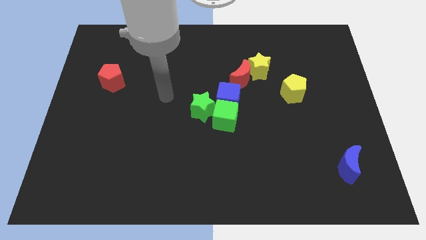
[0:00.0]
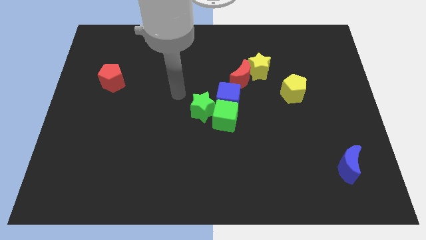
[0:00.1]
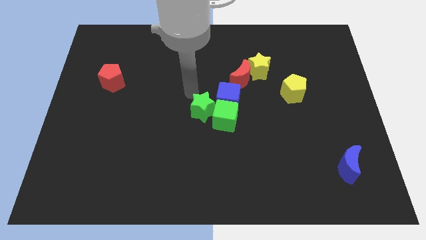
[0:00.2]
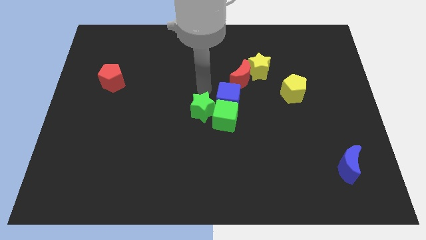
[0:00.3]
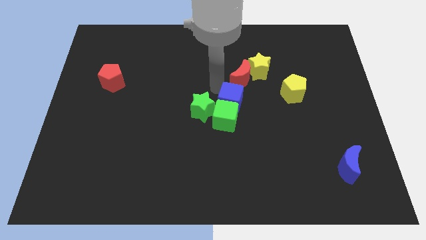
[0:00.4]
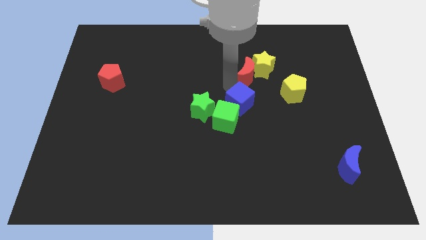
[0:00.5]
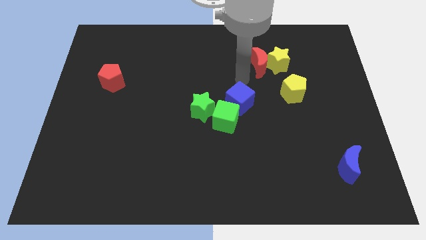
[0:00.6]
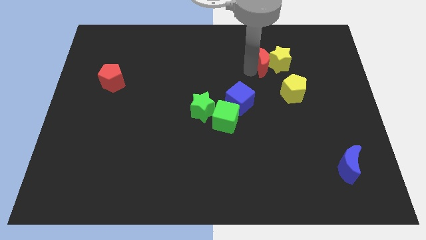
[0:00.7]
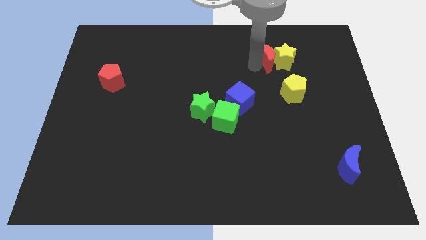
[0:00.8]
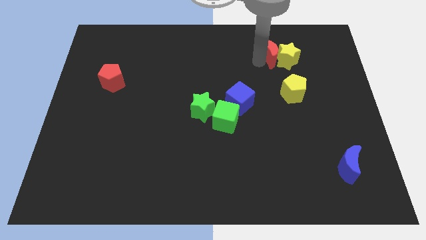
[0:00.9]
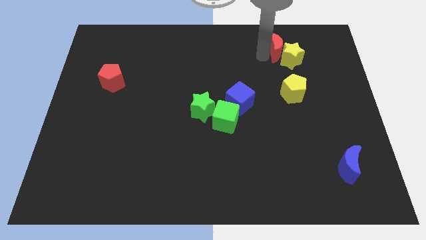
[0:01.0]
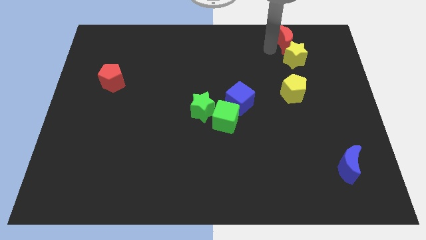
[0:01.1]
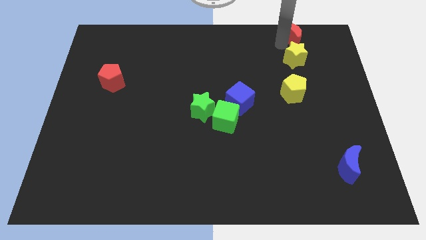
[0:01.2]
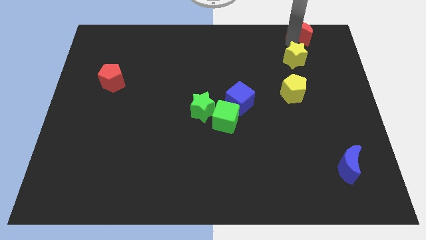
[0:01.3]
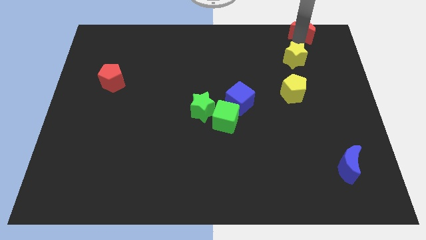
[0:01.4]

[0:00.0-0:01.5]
move the yellow star away from the red moon

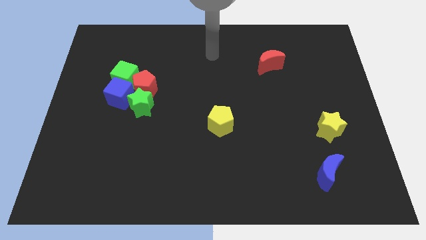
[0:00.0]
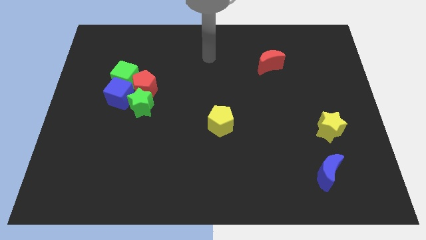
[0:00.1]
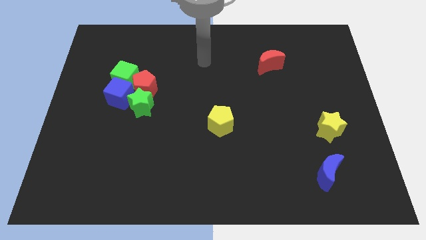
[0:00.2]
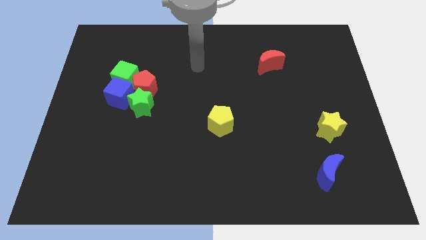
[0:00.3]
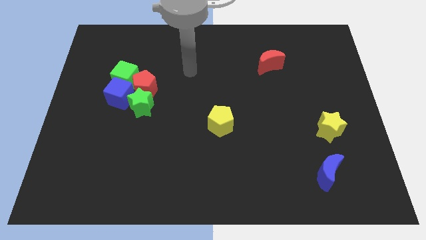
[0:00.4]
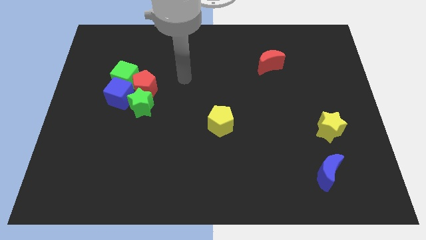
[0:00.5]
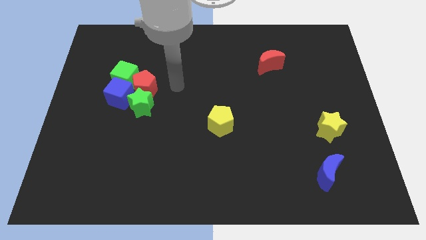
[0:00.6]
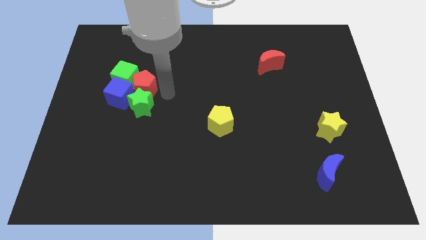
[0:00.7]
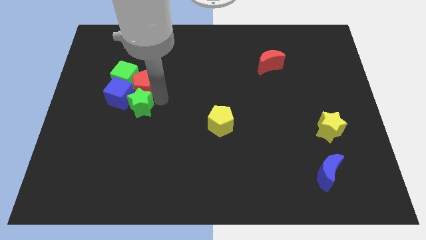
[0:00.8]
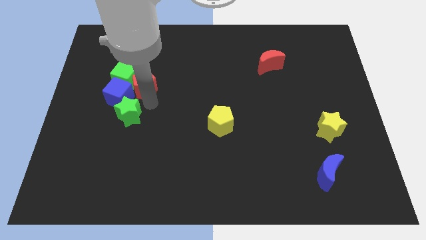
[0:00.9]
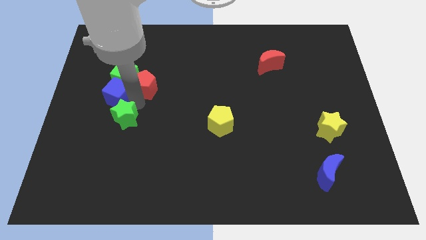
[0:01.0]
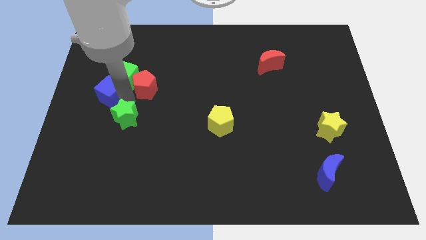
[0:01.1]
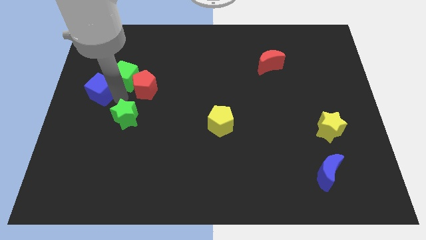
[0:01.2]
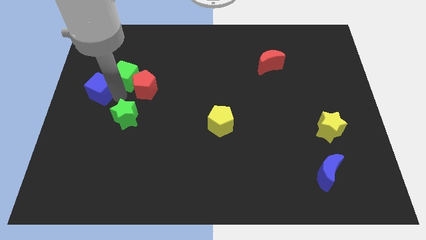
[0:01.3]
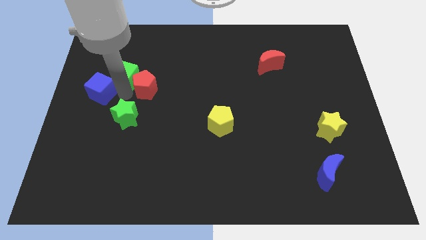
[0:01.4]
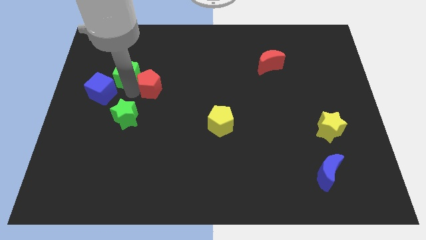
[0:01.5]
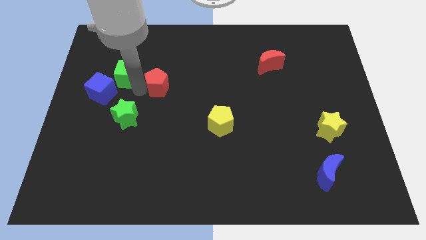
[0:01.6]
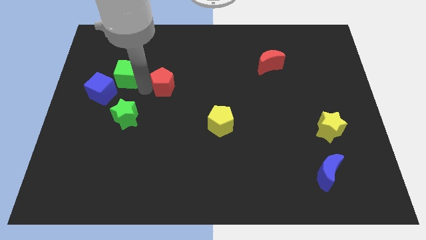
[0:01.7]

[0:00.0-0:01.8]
pull the red pentagon apart from the group

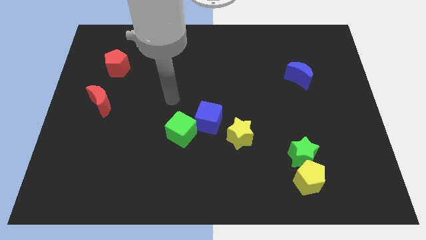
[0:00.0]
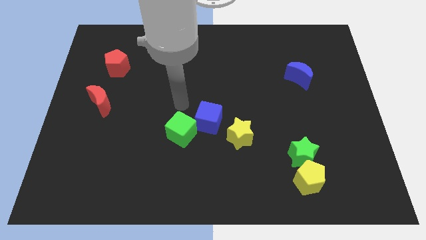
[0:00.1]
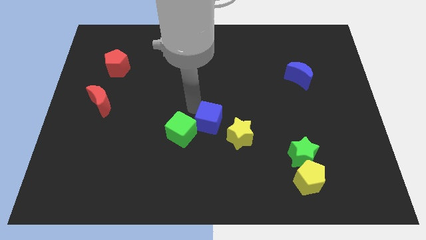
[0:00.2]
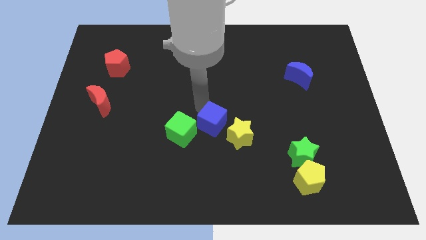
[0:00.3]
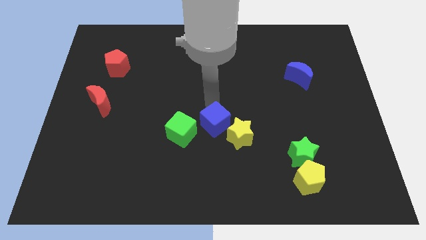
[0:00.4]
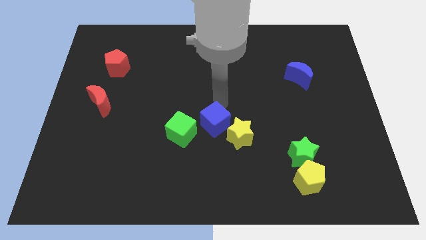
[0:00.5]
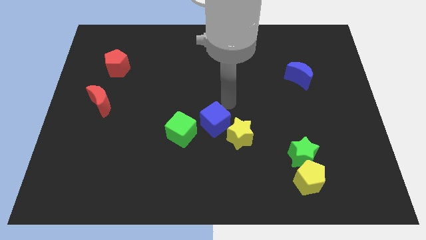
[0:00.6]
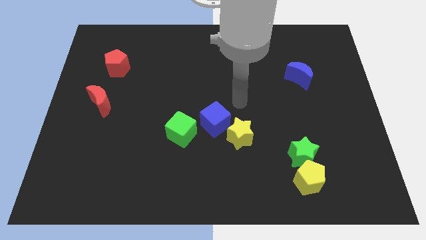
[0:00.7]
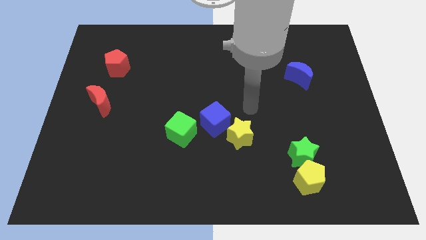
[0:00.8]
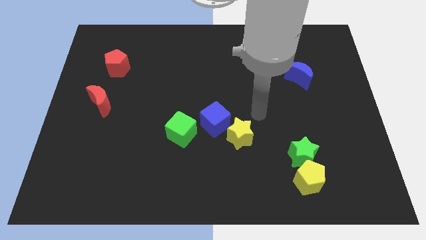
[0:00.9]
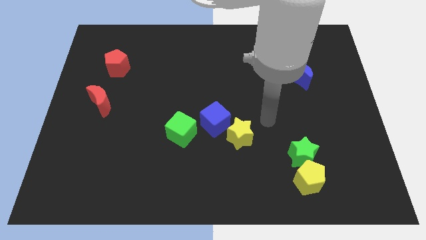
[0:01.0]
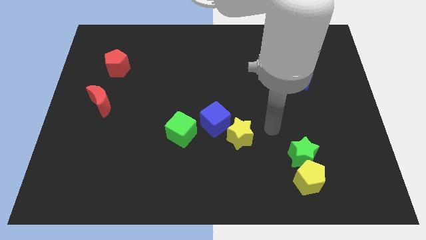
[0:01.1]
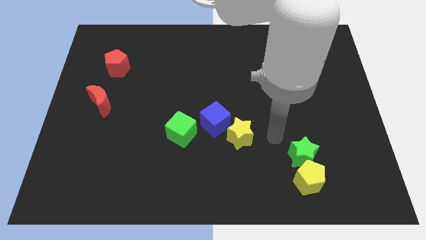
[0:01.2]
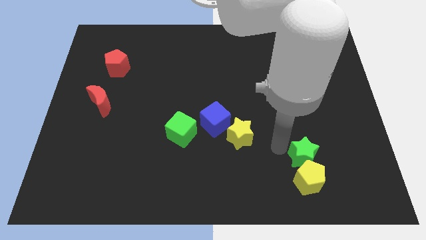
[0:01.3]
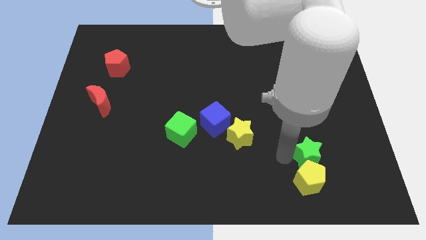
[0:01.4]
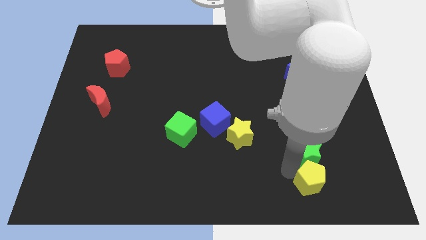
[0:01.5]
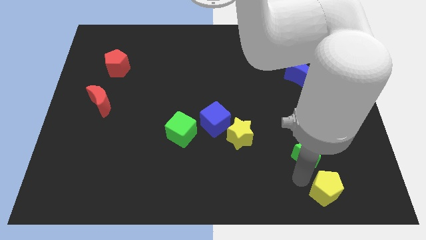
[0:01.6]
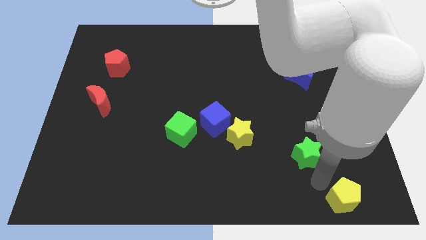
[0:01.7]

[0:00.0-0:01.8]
move the green star away from the yellow pentagon

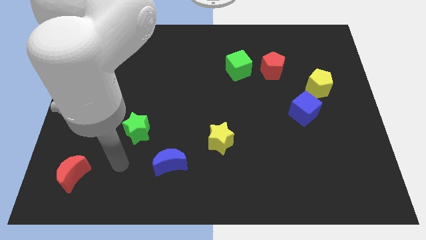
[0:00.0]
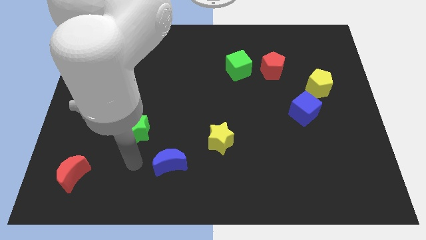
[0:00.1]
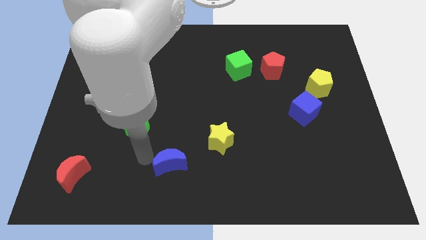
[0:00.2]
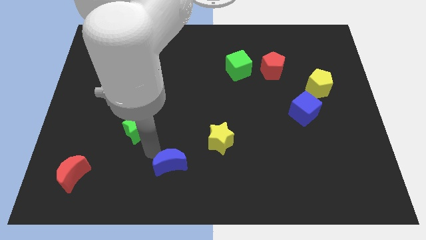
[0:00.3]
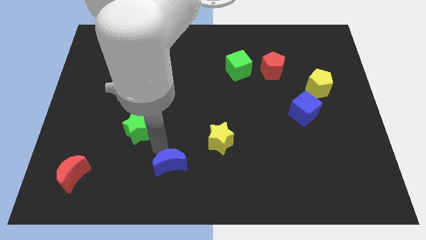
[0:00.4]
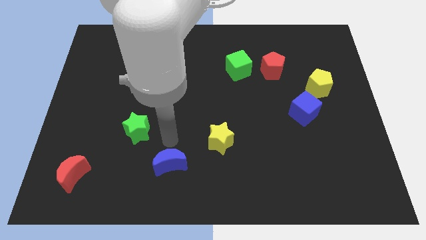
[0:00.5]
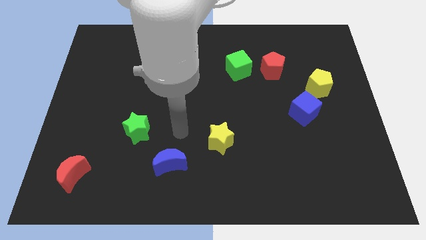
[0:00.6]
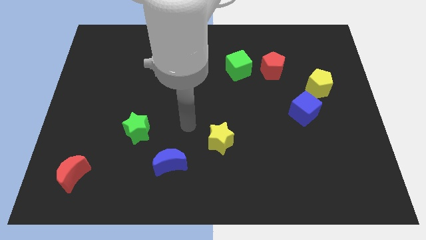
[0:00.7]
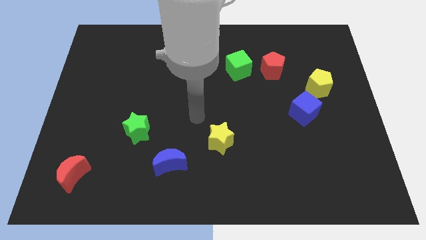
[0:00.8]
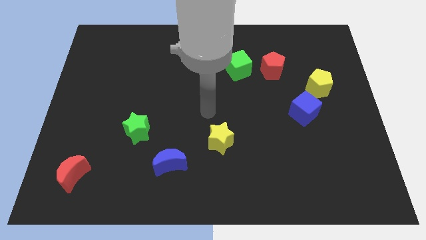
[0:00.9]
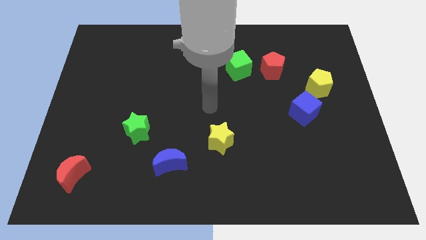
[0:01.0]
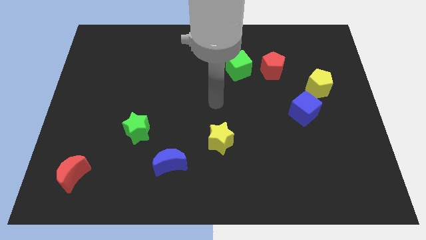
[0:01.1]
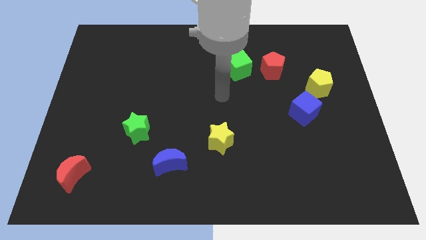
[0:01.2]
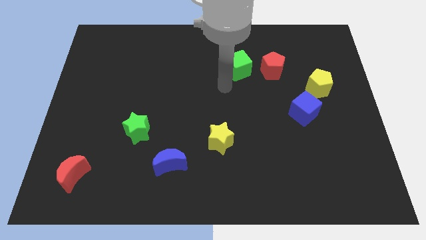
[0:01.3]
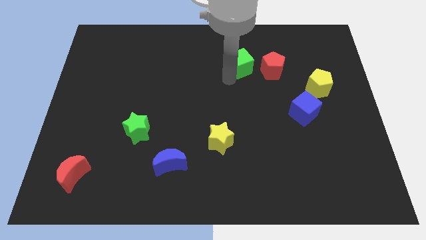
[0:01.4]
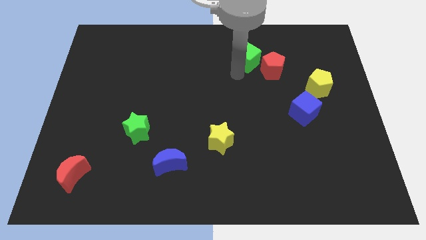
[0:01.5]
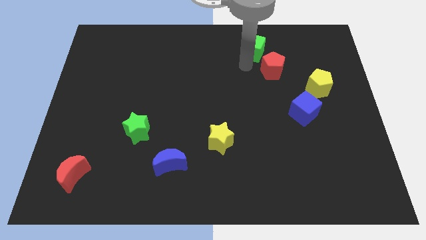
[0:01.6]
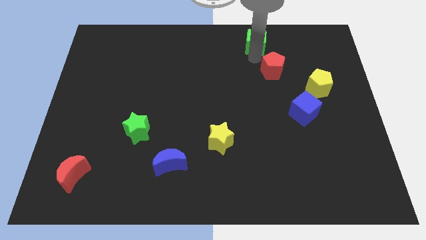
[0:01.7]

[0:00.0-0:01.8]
pull the red pentagon apart from the green cube

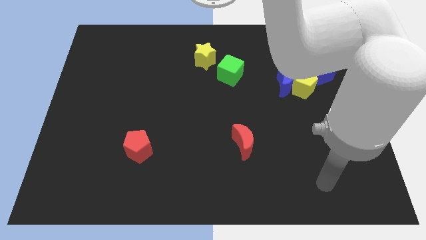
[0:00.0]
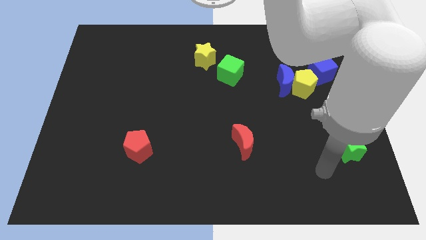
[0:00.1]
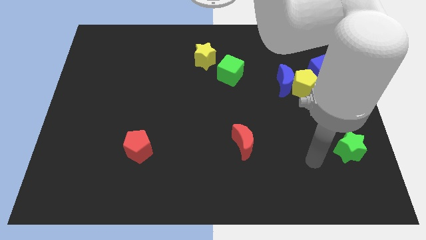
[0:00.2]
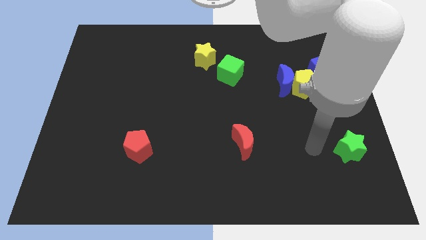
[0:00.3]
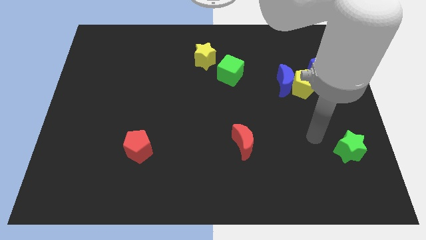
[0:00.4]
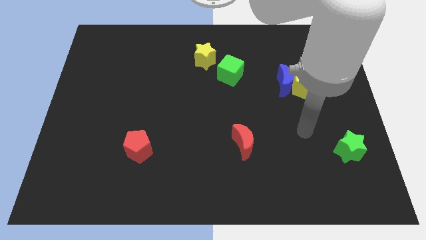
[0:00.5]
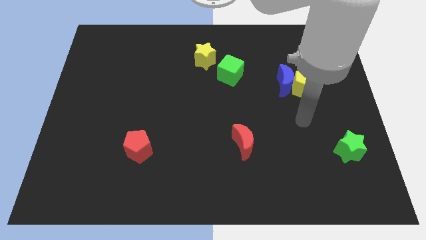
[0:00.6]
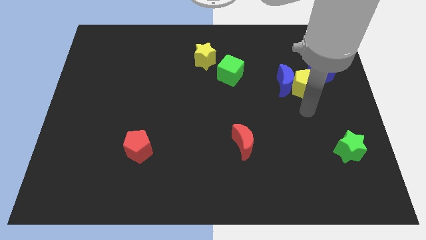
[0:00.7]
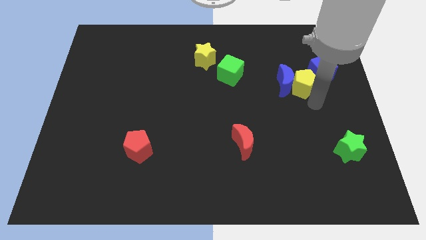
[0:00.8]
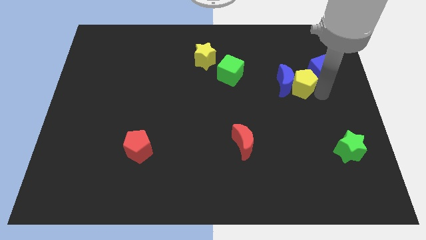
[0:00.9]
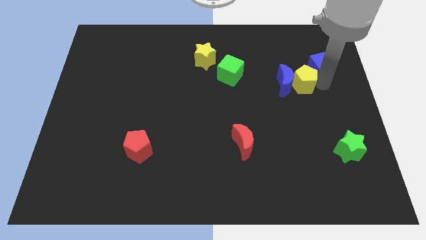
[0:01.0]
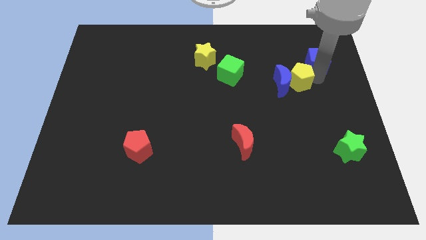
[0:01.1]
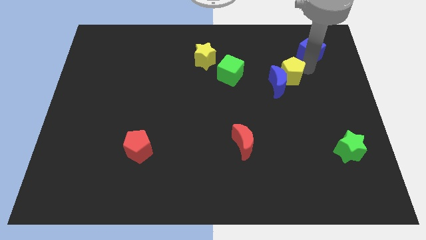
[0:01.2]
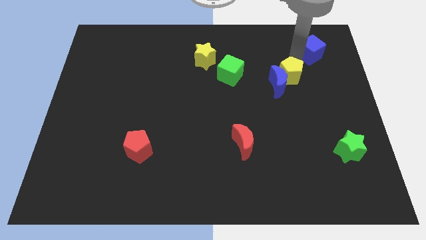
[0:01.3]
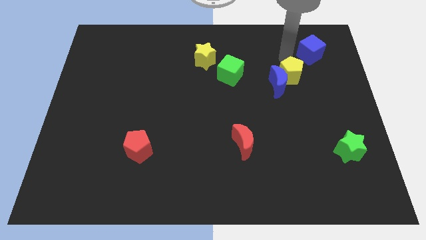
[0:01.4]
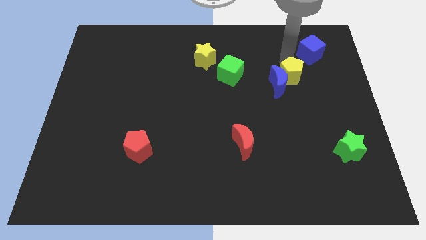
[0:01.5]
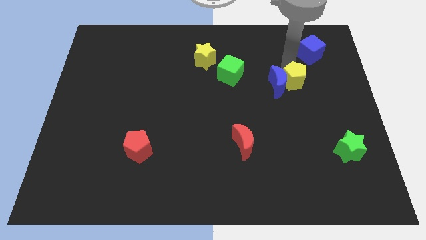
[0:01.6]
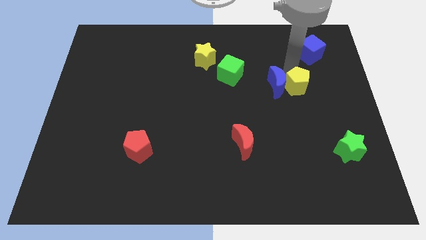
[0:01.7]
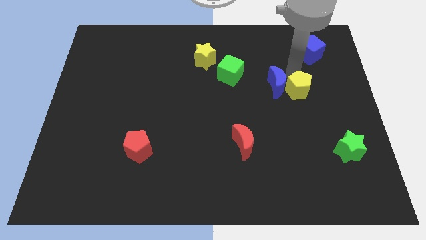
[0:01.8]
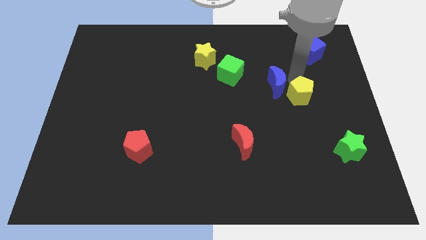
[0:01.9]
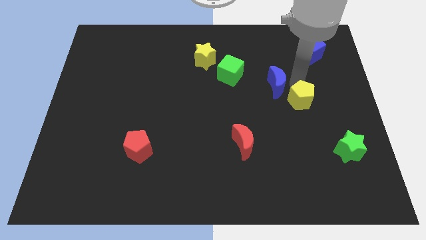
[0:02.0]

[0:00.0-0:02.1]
separate the yellow pentagon from the blue moon and blue cube

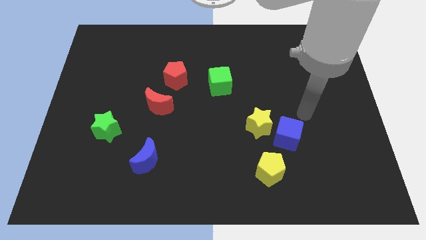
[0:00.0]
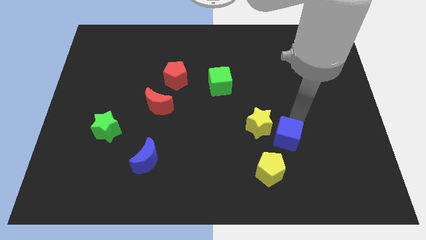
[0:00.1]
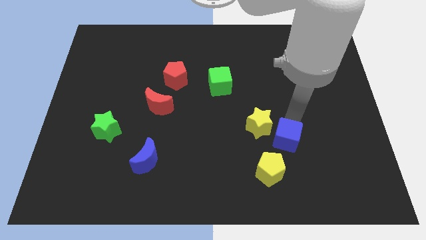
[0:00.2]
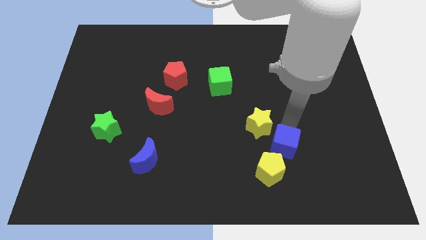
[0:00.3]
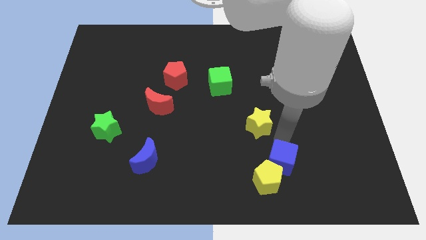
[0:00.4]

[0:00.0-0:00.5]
move the yellow star away from the blue cube
